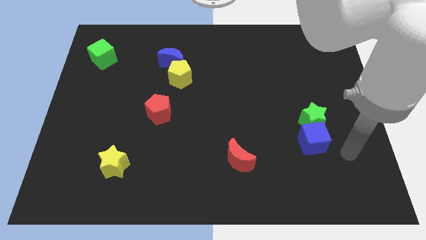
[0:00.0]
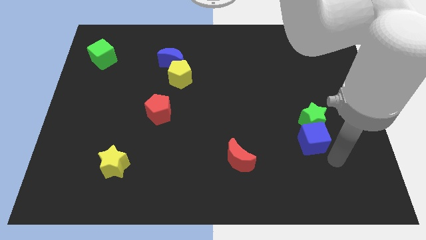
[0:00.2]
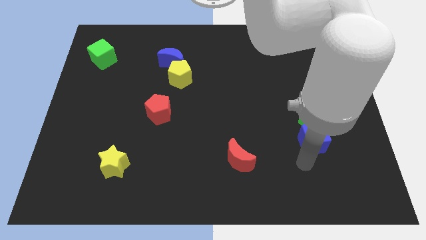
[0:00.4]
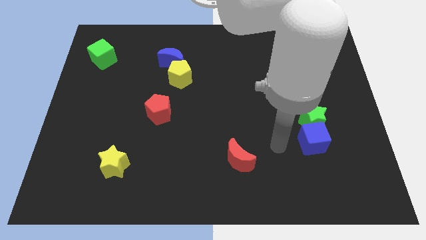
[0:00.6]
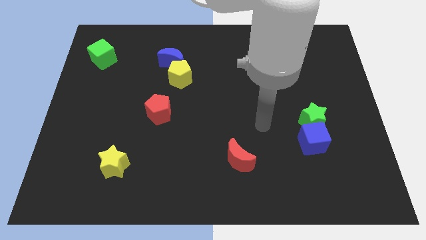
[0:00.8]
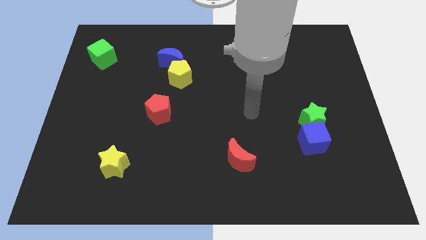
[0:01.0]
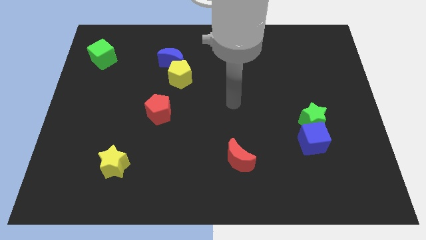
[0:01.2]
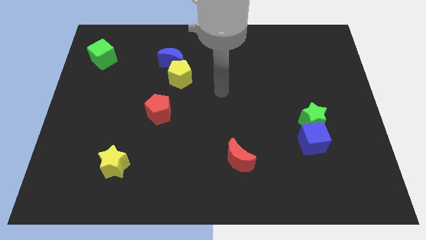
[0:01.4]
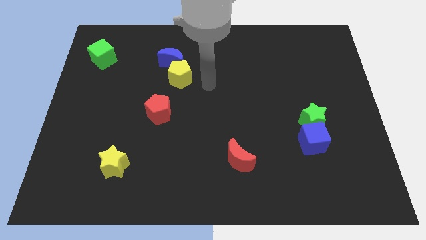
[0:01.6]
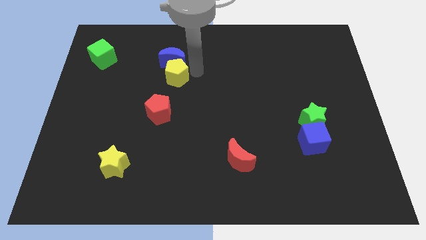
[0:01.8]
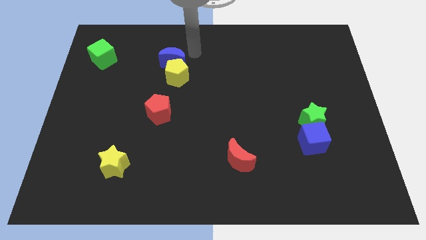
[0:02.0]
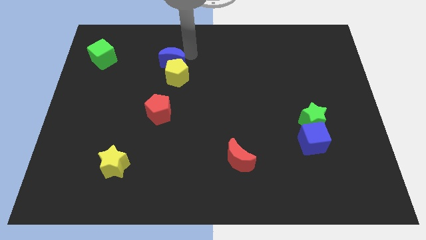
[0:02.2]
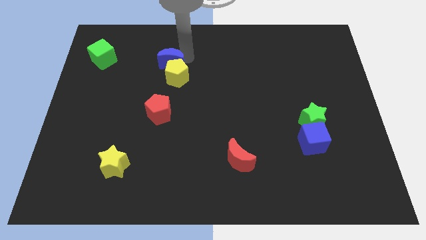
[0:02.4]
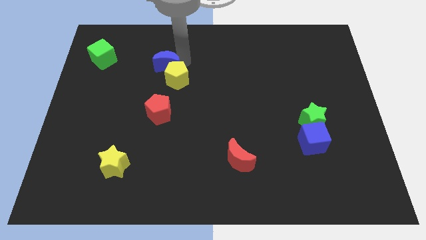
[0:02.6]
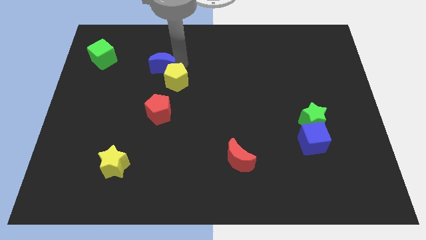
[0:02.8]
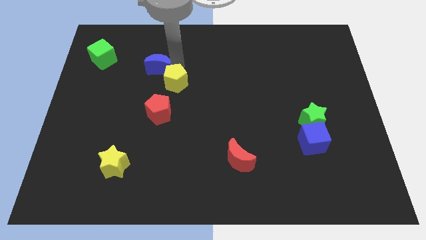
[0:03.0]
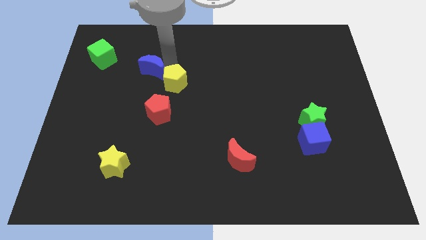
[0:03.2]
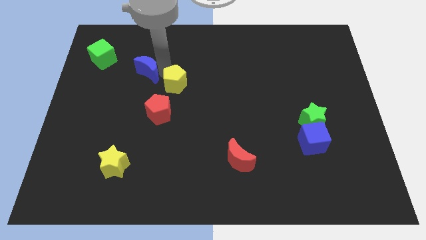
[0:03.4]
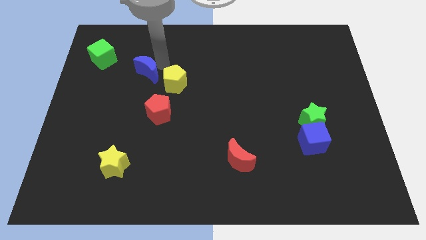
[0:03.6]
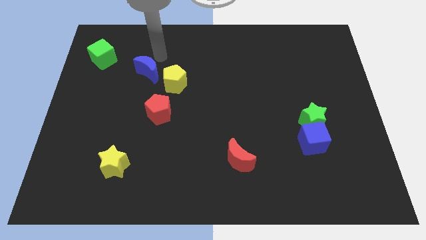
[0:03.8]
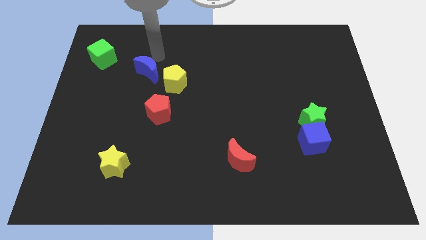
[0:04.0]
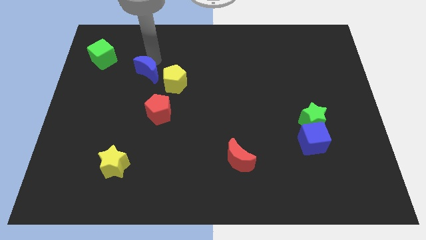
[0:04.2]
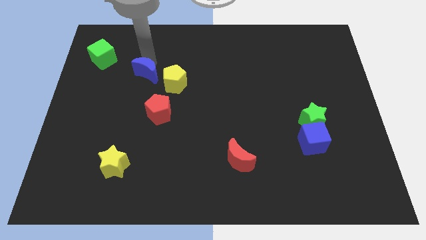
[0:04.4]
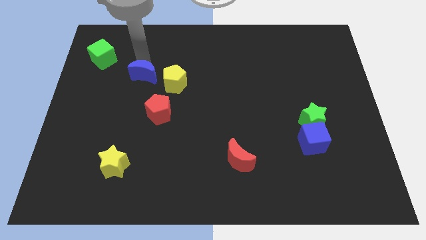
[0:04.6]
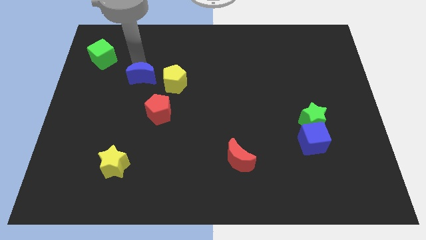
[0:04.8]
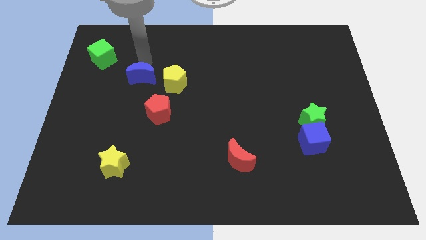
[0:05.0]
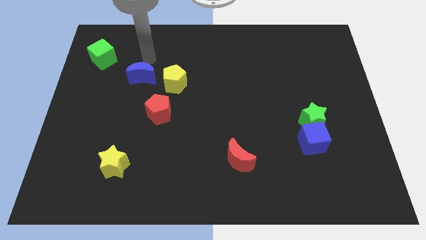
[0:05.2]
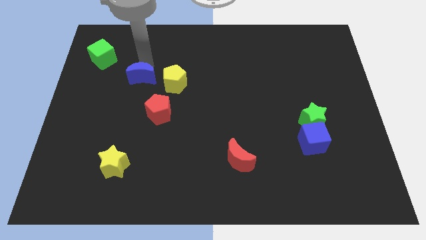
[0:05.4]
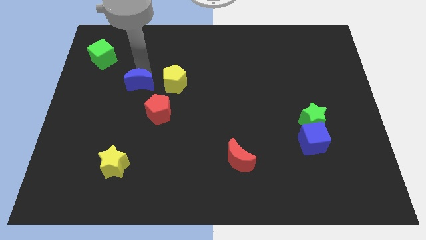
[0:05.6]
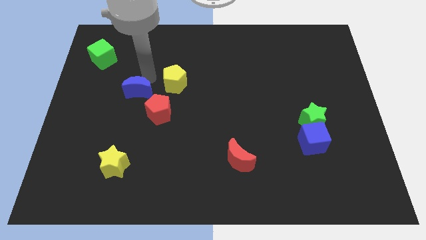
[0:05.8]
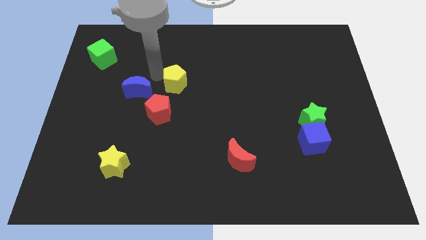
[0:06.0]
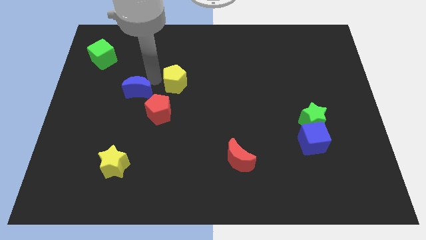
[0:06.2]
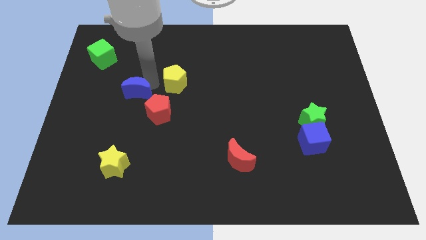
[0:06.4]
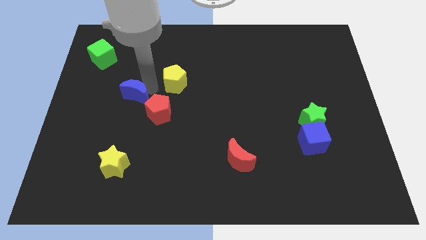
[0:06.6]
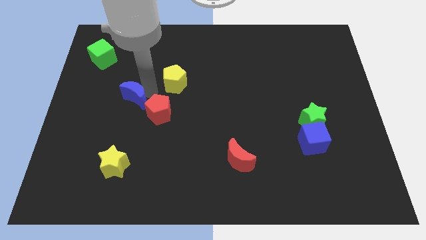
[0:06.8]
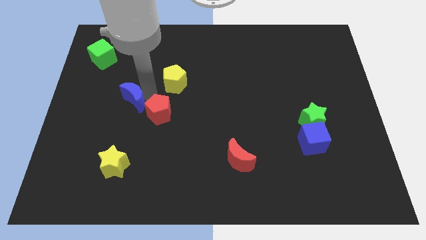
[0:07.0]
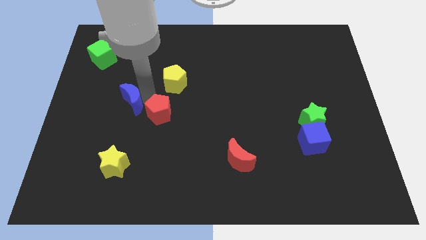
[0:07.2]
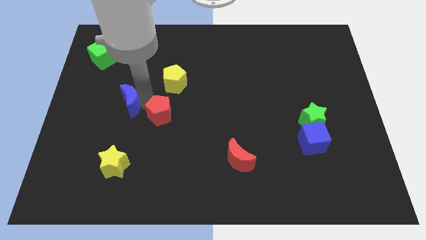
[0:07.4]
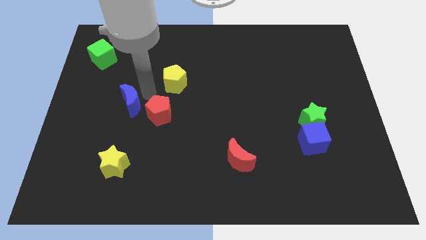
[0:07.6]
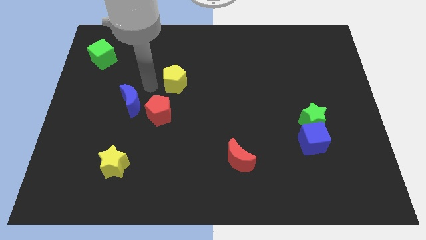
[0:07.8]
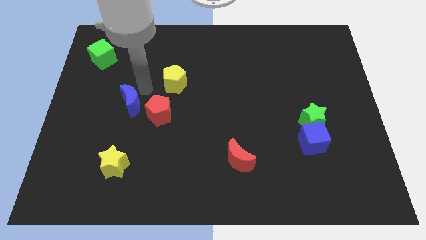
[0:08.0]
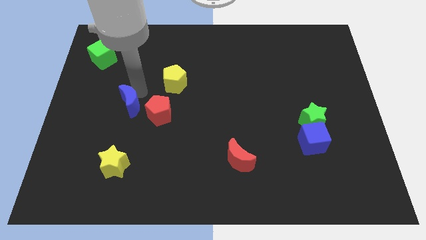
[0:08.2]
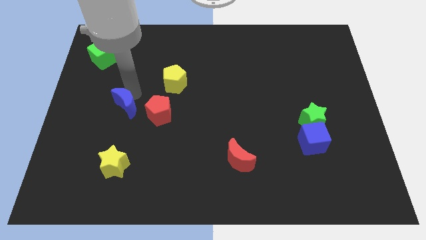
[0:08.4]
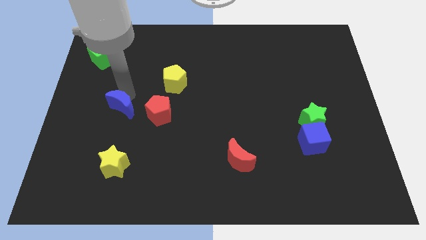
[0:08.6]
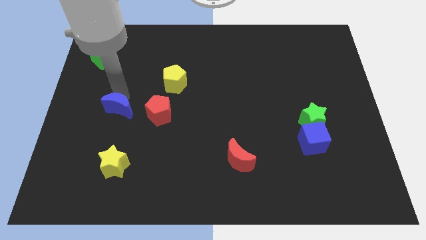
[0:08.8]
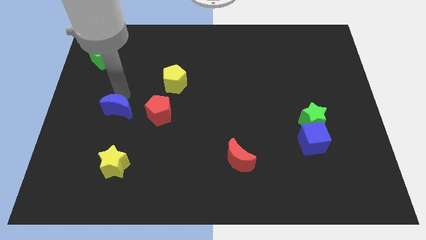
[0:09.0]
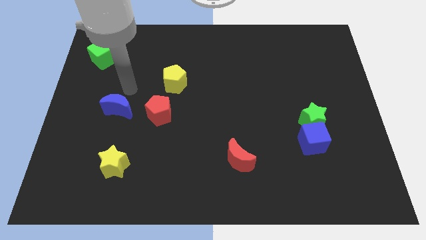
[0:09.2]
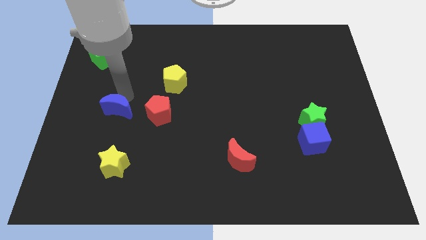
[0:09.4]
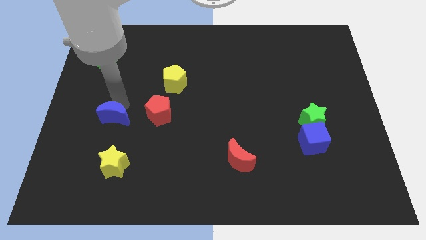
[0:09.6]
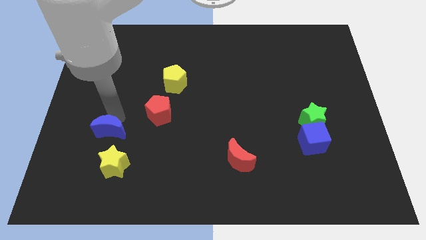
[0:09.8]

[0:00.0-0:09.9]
push the blue moon to the top left side of the yellow star

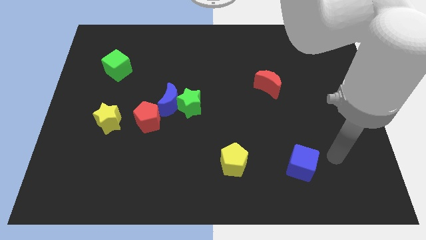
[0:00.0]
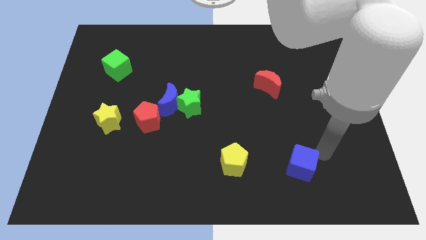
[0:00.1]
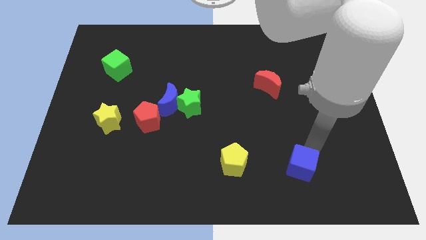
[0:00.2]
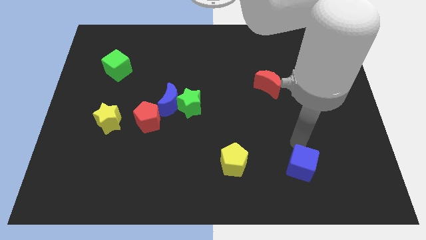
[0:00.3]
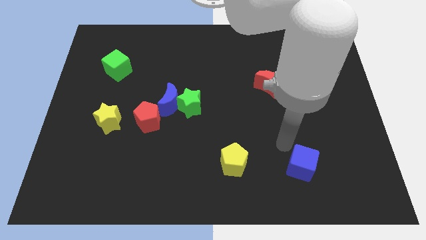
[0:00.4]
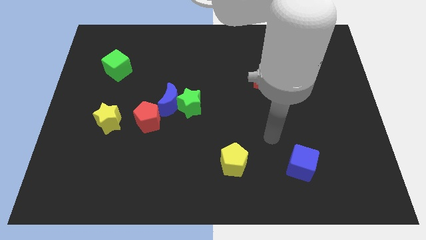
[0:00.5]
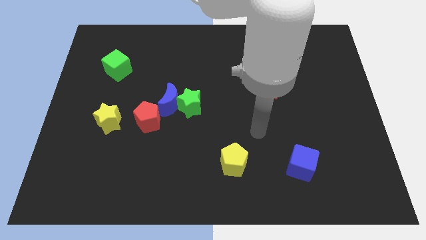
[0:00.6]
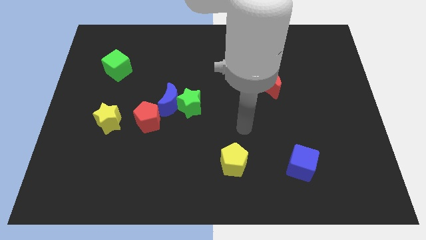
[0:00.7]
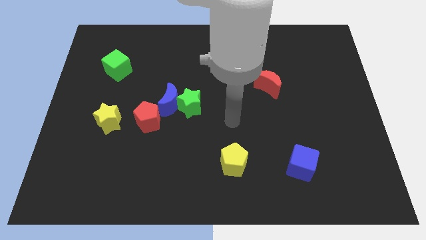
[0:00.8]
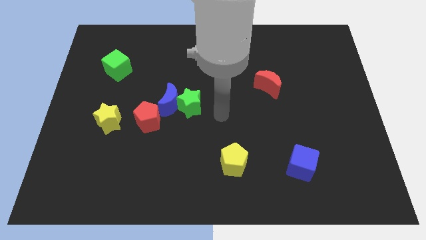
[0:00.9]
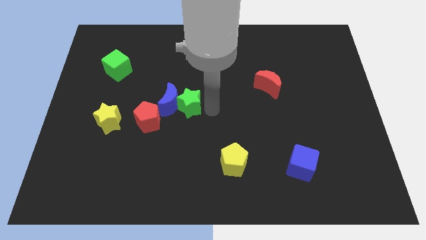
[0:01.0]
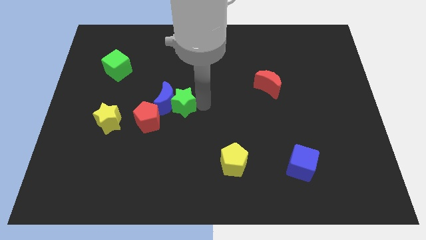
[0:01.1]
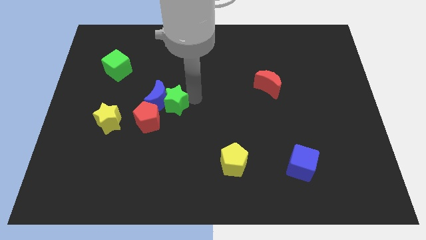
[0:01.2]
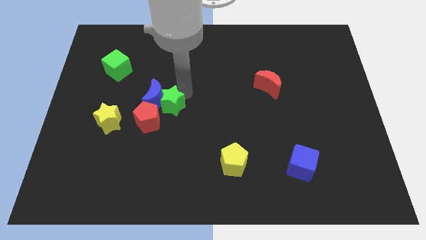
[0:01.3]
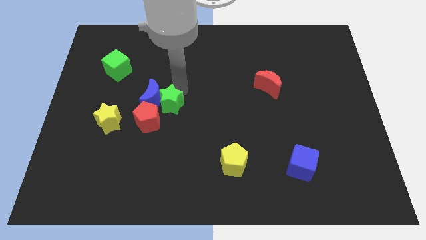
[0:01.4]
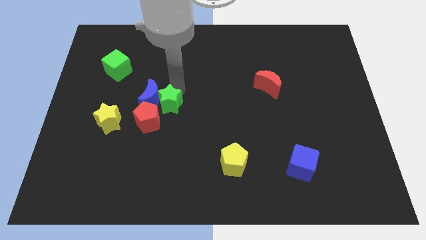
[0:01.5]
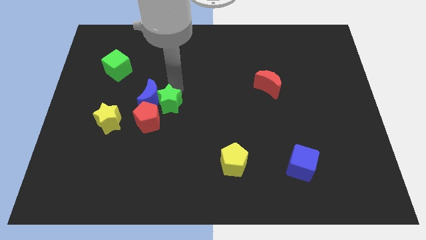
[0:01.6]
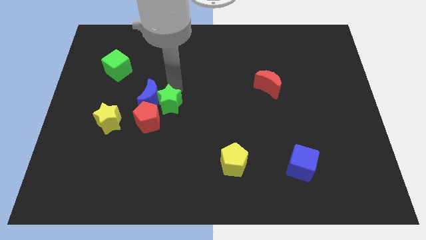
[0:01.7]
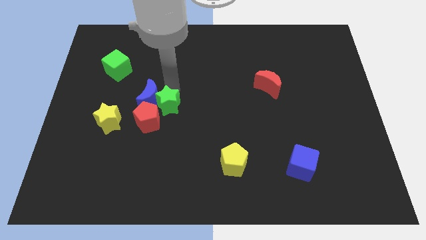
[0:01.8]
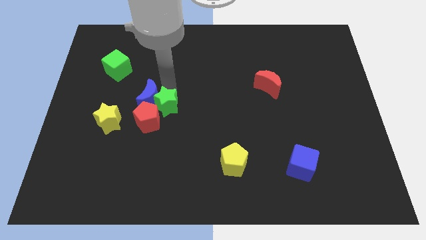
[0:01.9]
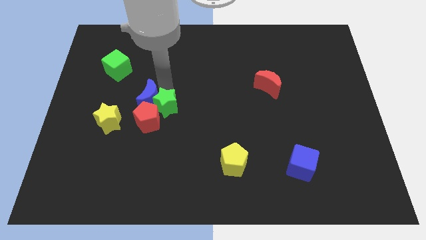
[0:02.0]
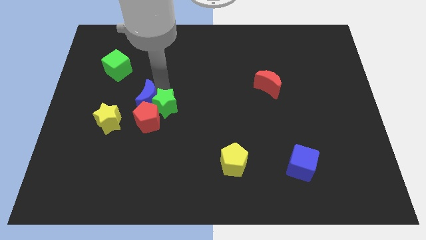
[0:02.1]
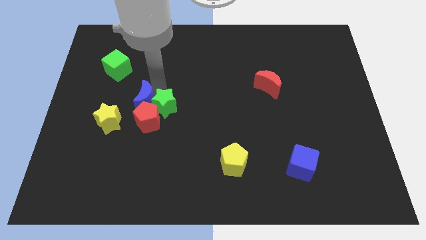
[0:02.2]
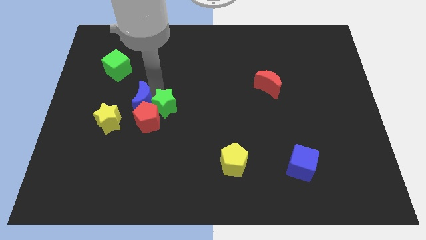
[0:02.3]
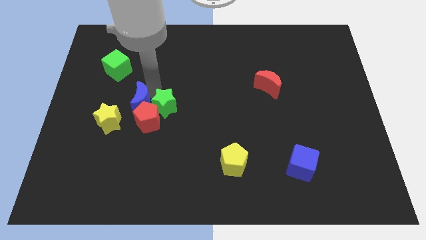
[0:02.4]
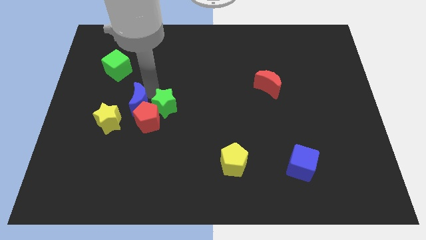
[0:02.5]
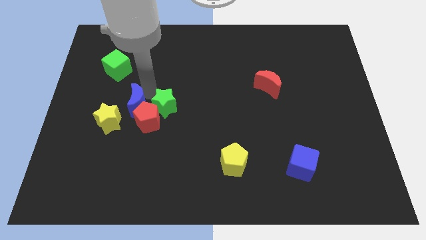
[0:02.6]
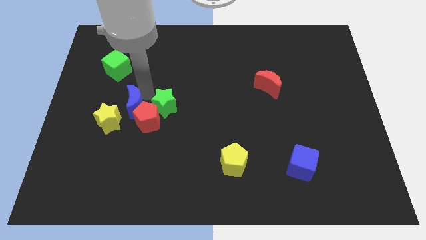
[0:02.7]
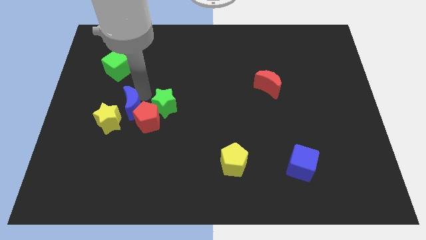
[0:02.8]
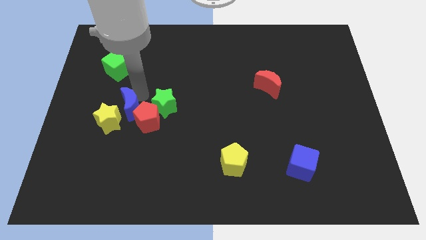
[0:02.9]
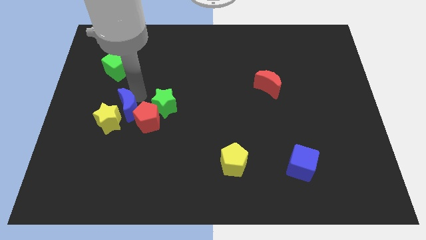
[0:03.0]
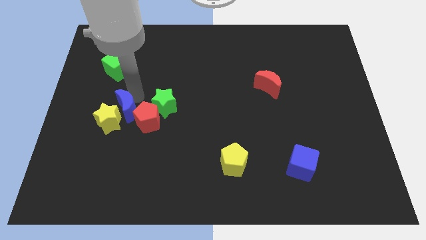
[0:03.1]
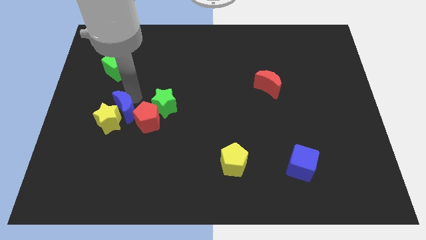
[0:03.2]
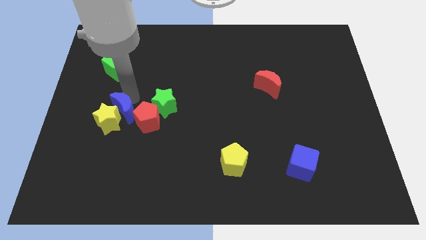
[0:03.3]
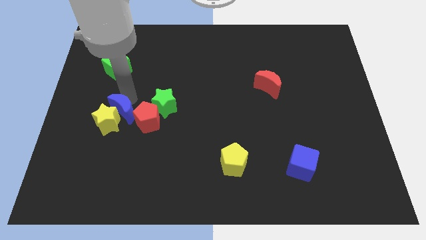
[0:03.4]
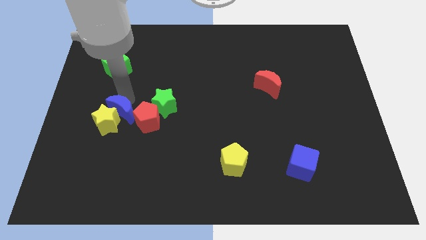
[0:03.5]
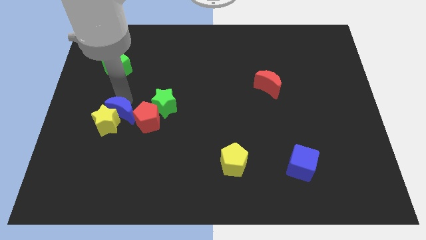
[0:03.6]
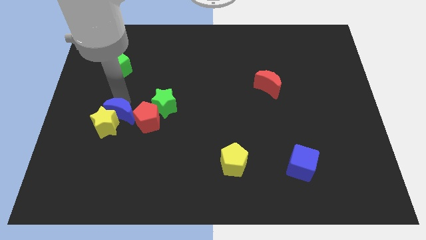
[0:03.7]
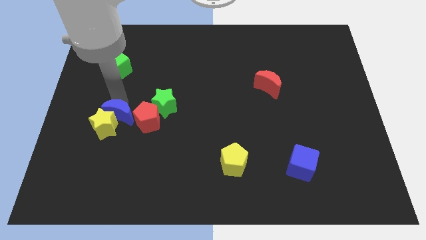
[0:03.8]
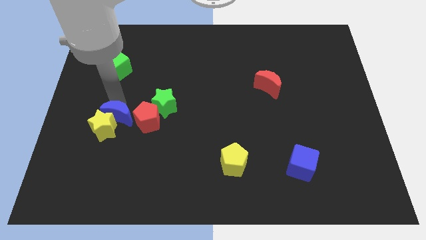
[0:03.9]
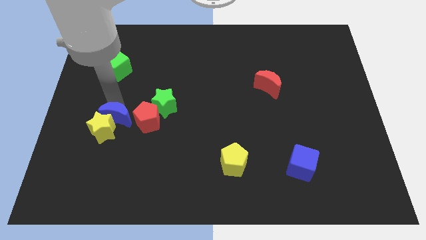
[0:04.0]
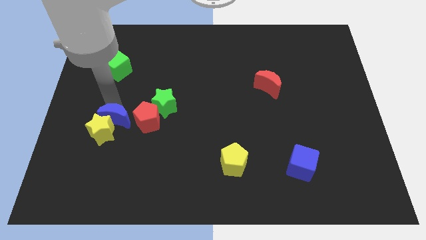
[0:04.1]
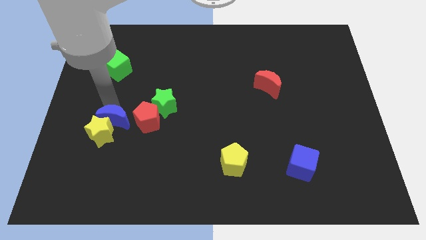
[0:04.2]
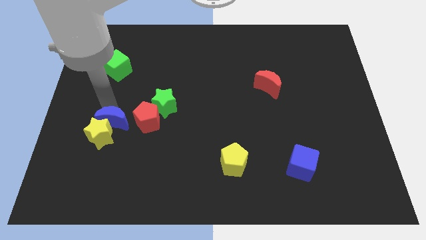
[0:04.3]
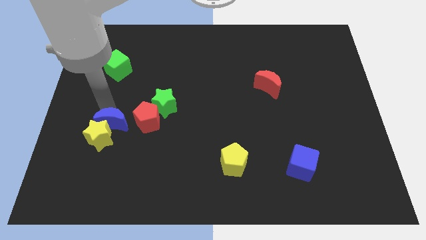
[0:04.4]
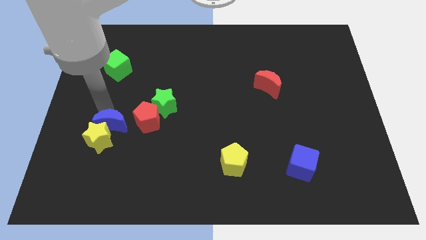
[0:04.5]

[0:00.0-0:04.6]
put the blue moon to the bottom left of the red pentagon
